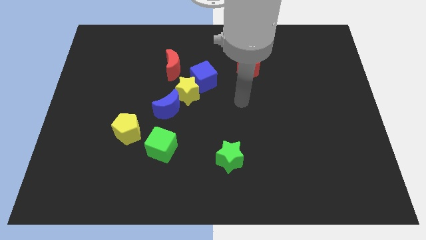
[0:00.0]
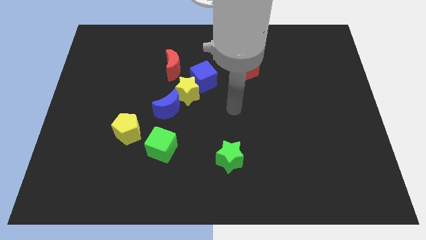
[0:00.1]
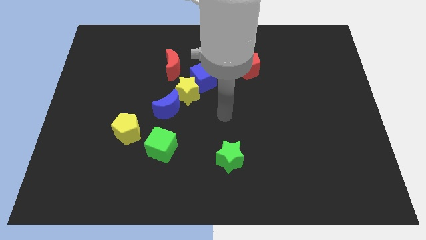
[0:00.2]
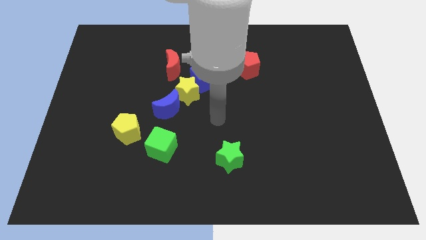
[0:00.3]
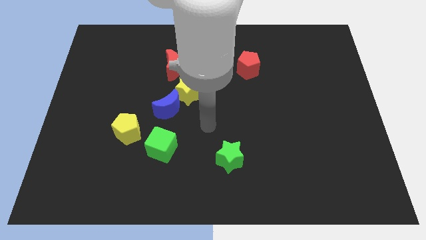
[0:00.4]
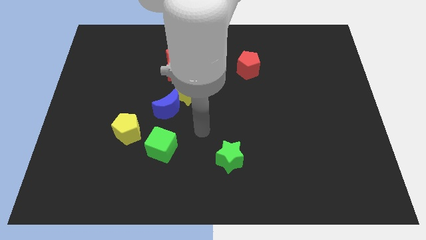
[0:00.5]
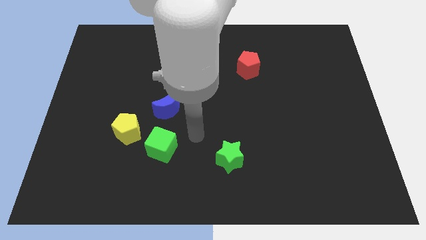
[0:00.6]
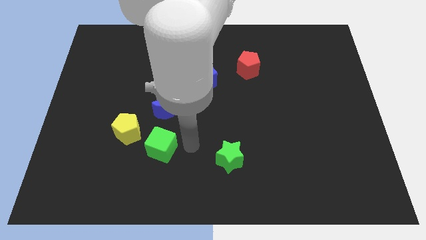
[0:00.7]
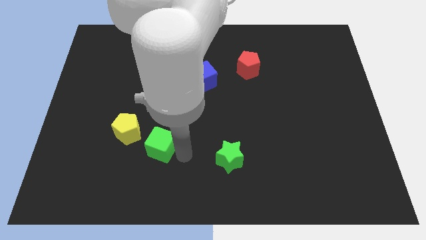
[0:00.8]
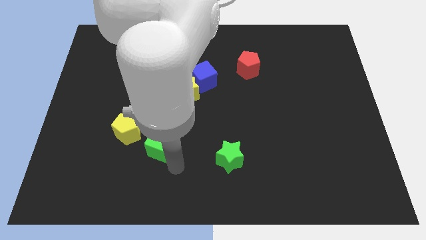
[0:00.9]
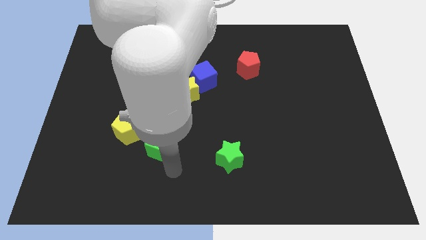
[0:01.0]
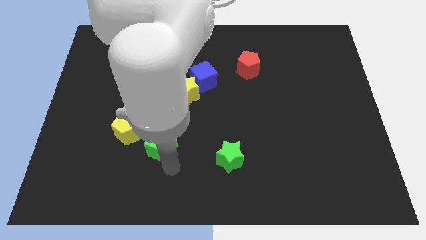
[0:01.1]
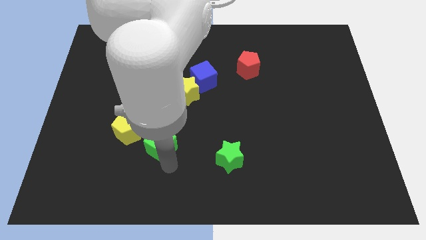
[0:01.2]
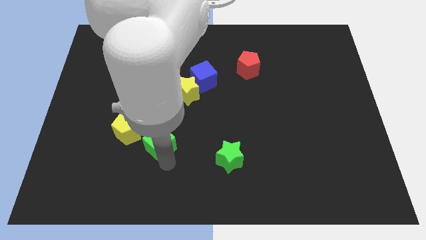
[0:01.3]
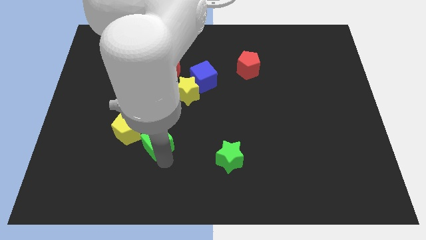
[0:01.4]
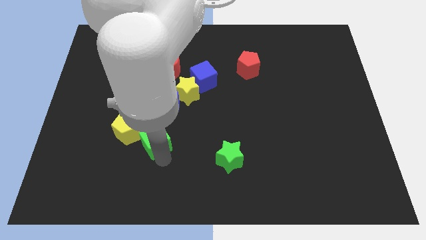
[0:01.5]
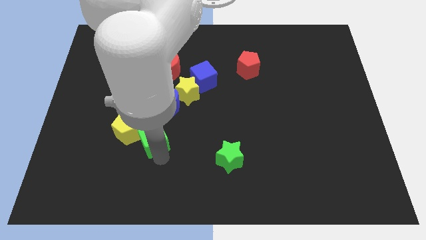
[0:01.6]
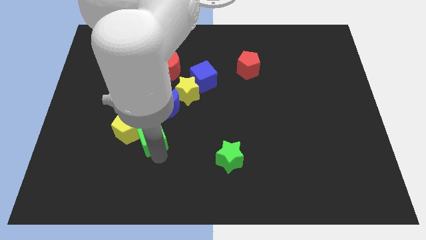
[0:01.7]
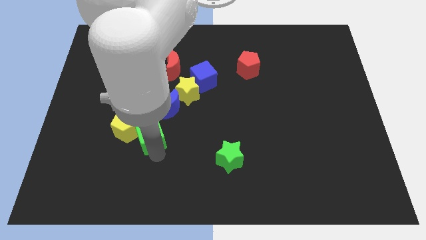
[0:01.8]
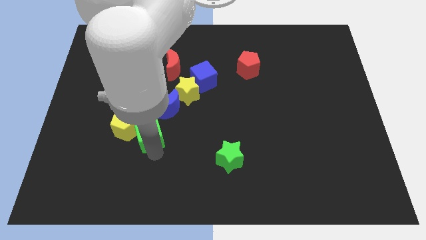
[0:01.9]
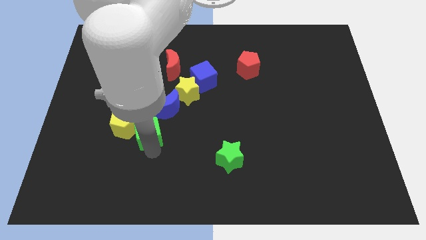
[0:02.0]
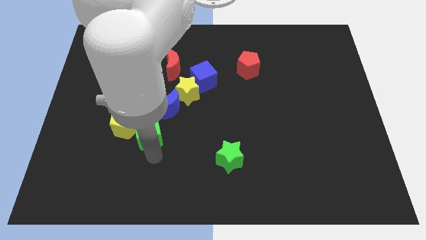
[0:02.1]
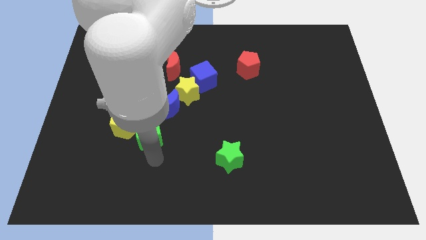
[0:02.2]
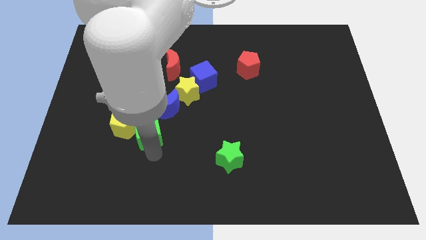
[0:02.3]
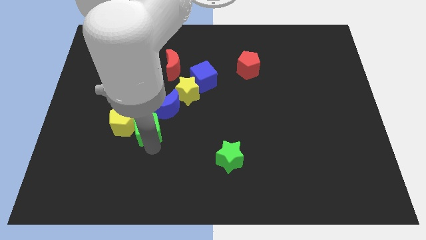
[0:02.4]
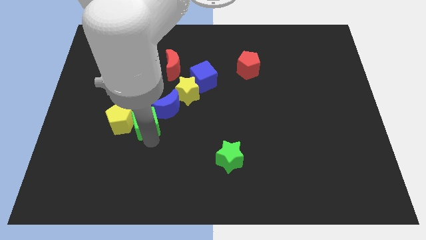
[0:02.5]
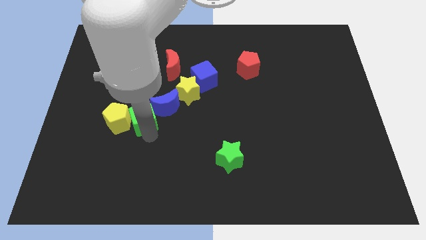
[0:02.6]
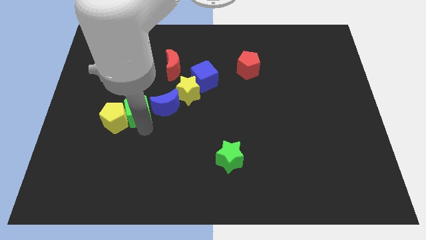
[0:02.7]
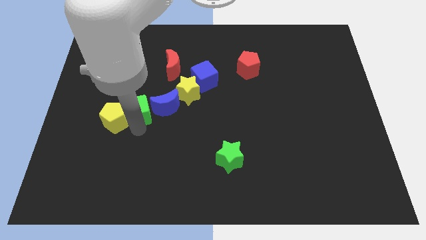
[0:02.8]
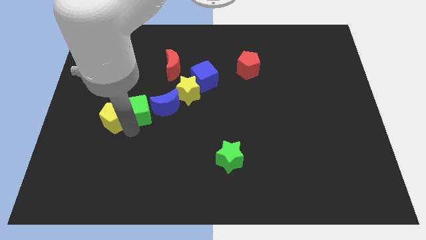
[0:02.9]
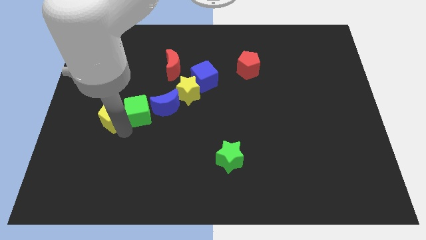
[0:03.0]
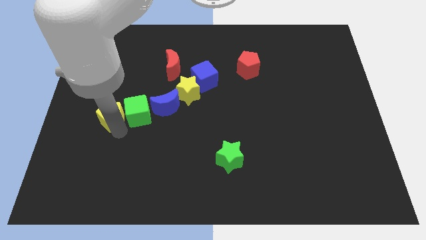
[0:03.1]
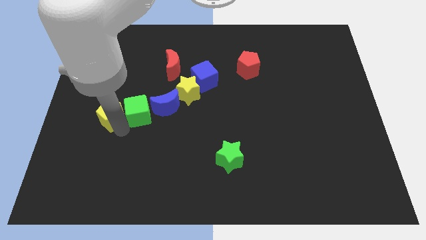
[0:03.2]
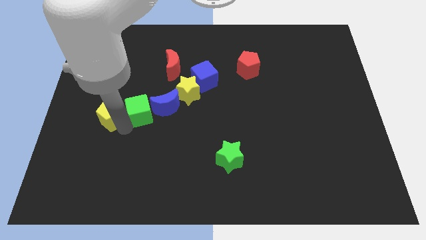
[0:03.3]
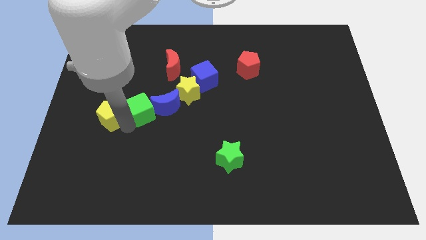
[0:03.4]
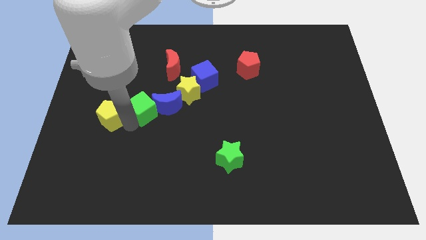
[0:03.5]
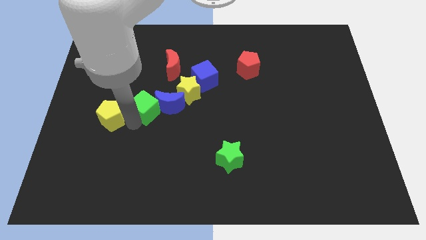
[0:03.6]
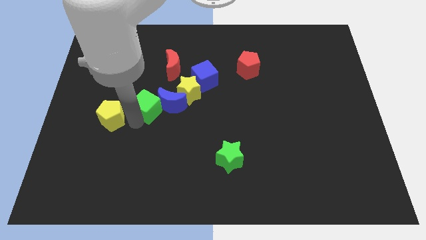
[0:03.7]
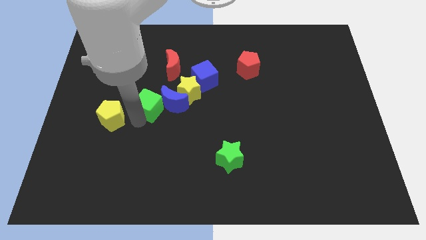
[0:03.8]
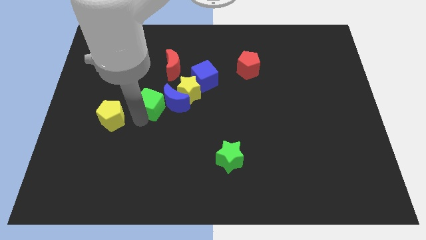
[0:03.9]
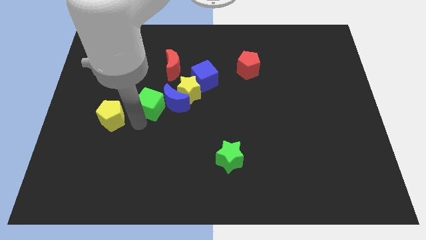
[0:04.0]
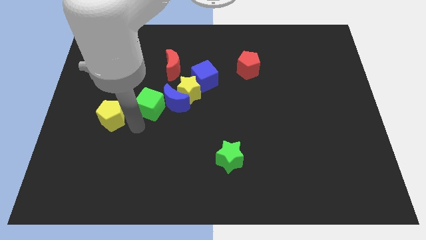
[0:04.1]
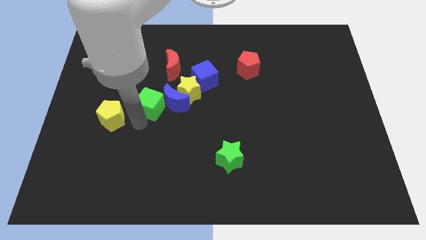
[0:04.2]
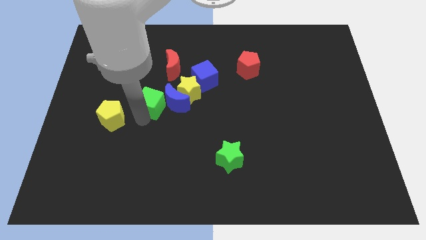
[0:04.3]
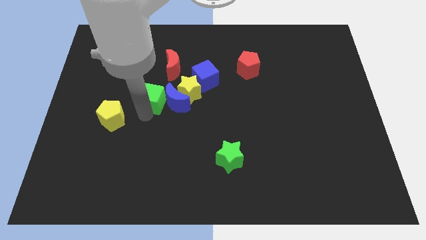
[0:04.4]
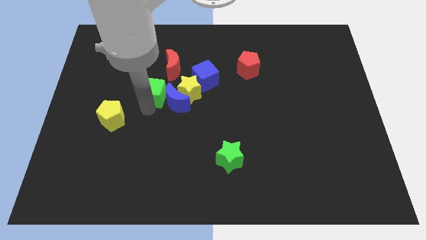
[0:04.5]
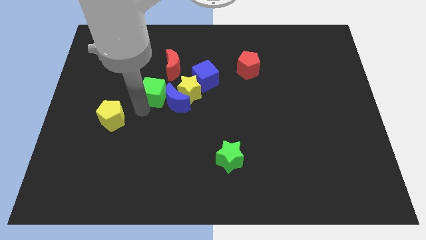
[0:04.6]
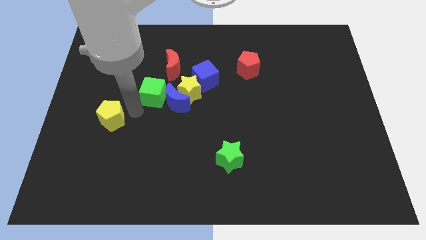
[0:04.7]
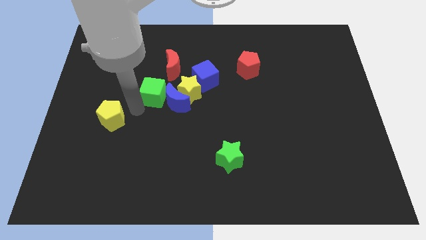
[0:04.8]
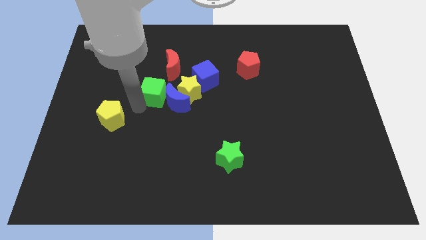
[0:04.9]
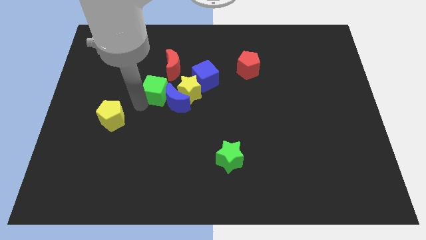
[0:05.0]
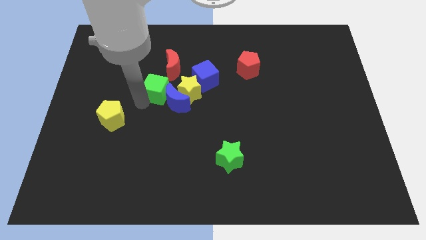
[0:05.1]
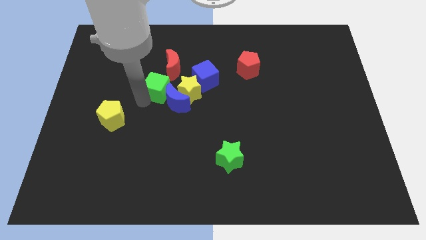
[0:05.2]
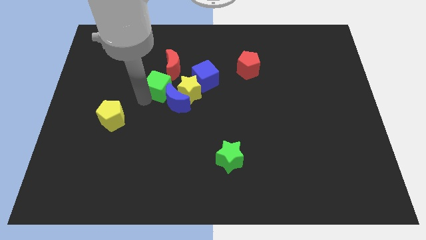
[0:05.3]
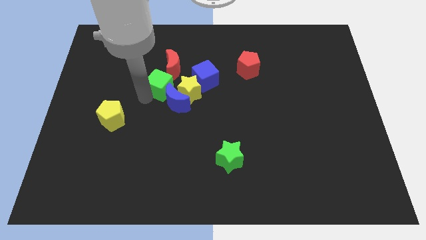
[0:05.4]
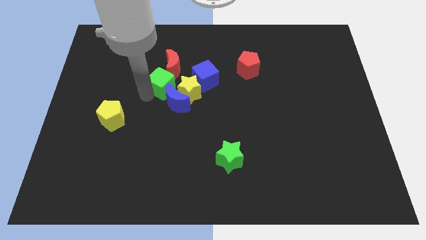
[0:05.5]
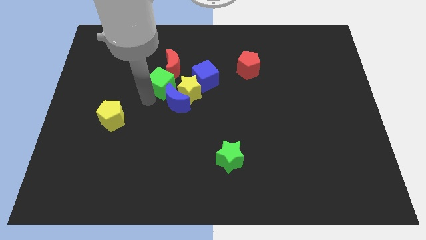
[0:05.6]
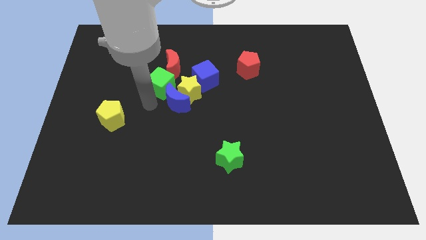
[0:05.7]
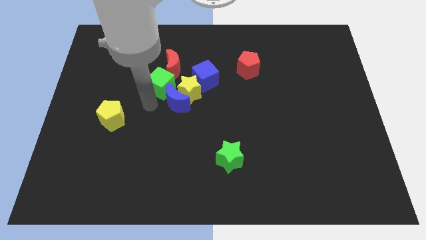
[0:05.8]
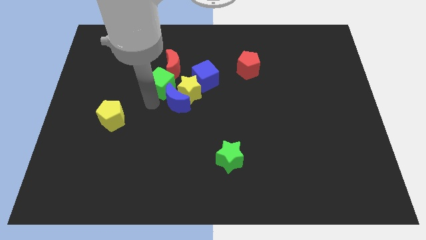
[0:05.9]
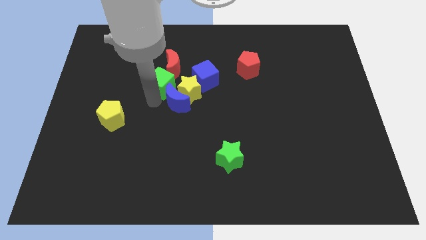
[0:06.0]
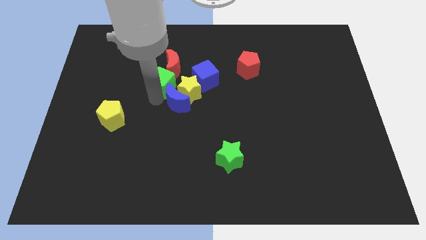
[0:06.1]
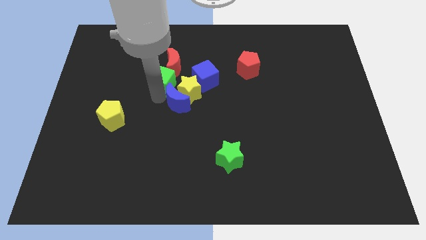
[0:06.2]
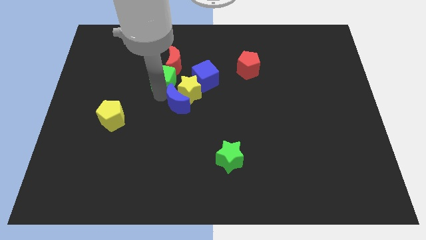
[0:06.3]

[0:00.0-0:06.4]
slide the green cube towards the red moon
